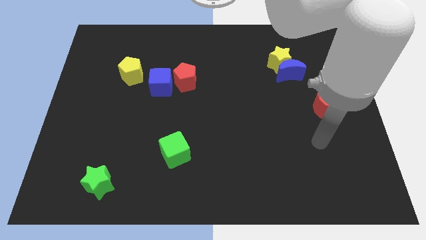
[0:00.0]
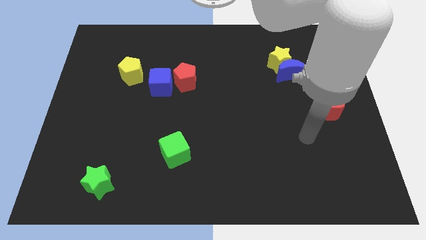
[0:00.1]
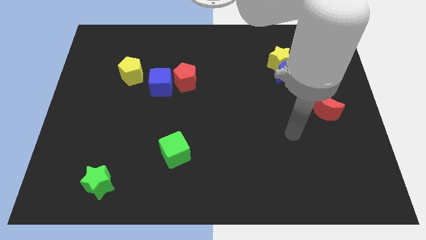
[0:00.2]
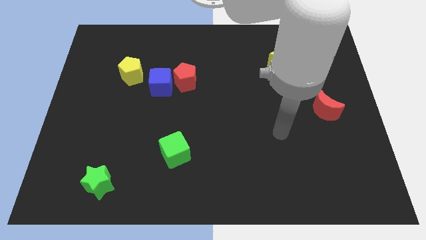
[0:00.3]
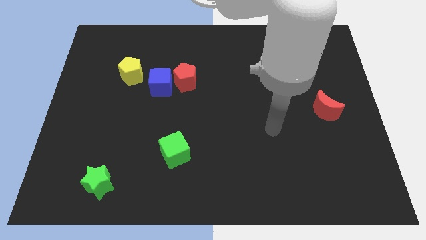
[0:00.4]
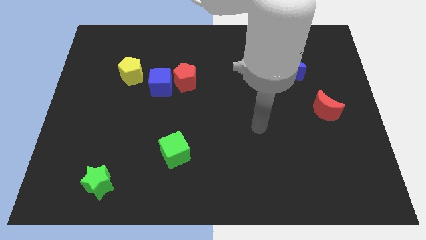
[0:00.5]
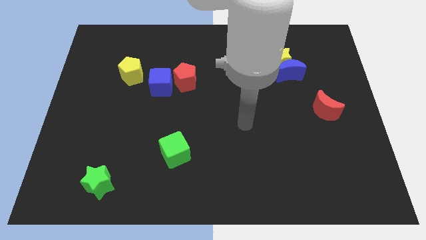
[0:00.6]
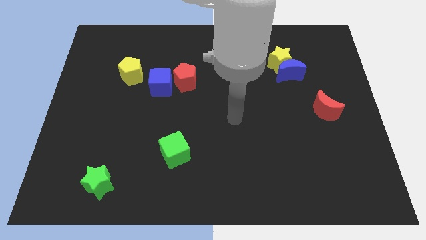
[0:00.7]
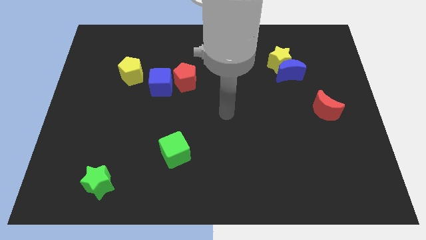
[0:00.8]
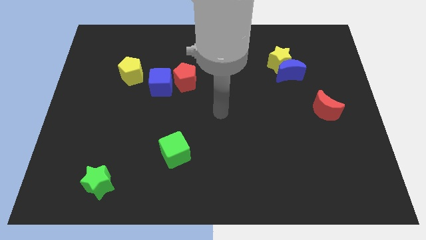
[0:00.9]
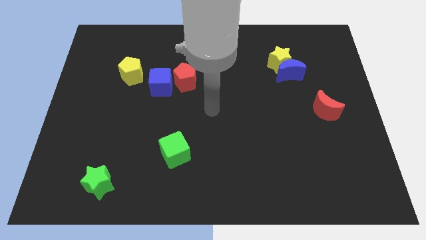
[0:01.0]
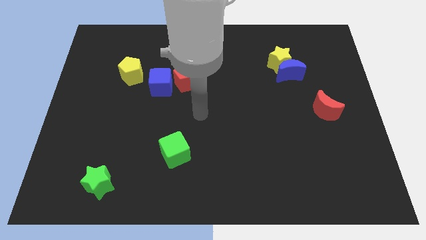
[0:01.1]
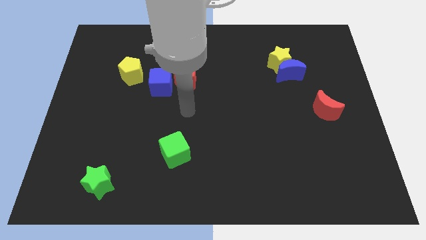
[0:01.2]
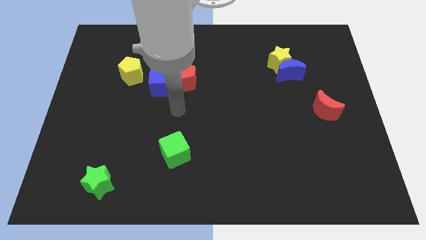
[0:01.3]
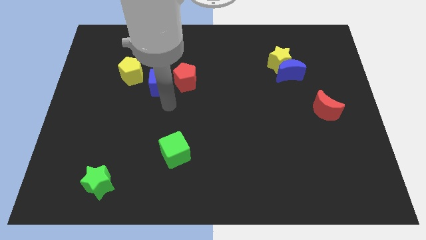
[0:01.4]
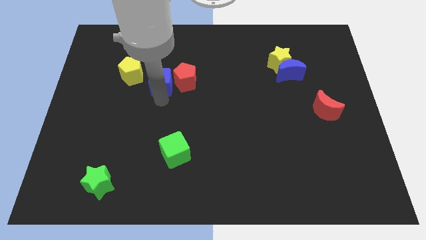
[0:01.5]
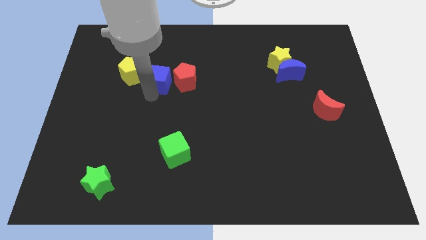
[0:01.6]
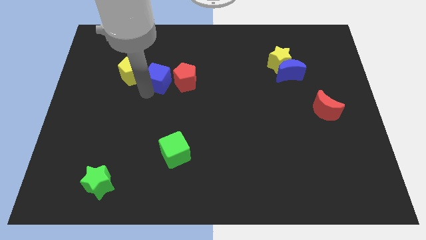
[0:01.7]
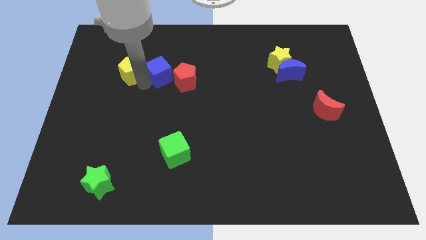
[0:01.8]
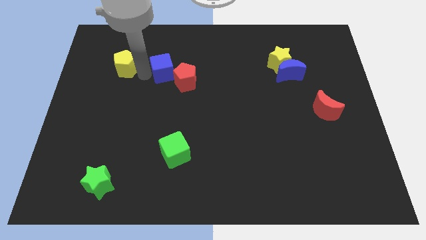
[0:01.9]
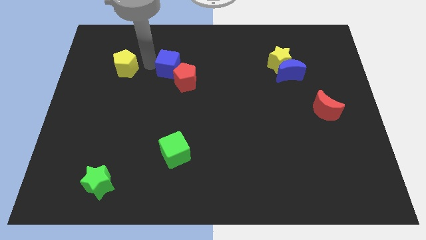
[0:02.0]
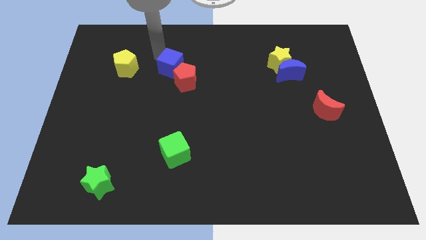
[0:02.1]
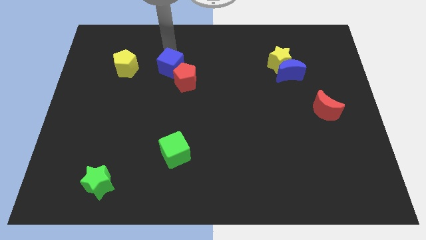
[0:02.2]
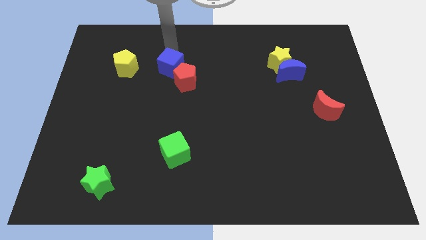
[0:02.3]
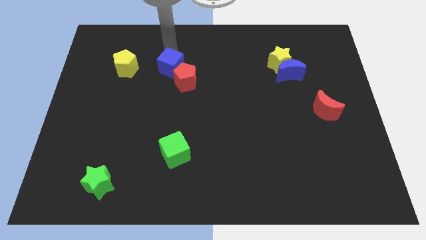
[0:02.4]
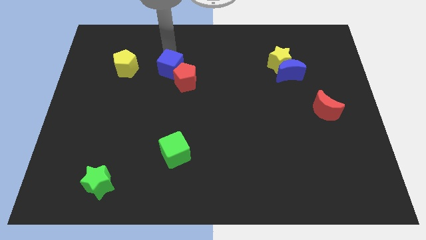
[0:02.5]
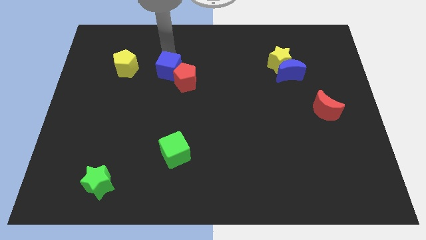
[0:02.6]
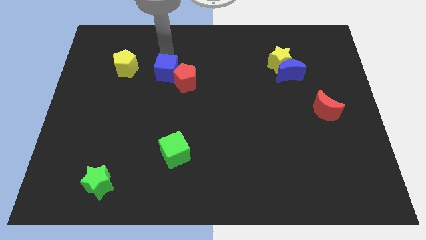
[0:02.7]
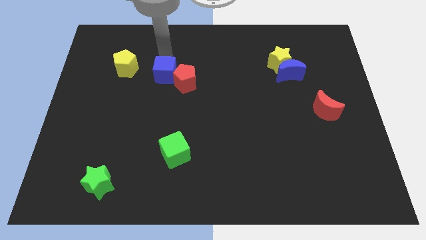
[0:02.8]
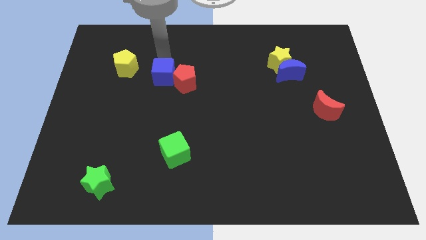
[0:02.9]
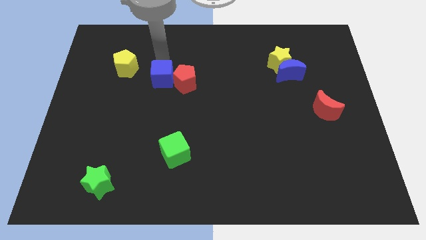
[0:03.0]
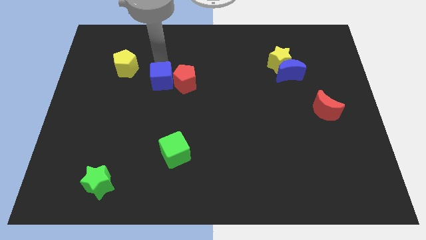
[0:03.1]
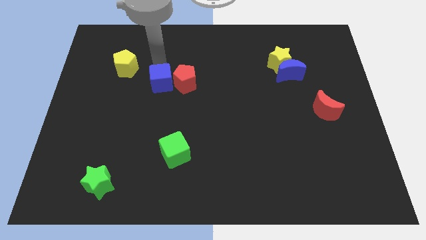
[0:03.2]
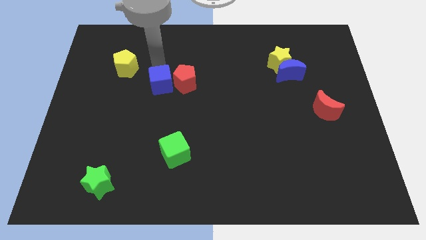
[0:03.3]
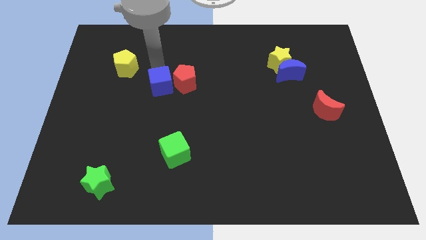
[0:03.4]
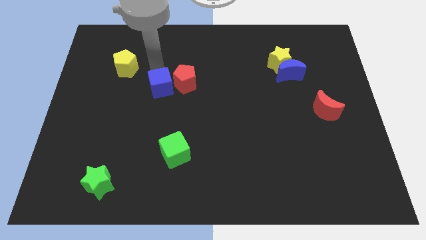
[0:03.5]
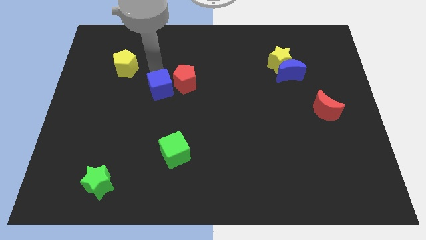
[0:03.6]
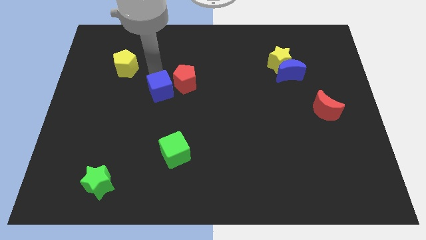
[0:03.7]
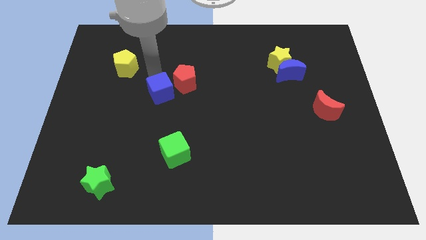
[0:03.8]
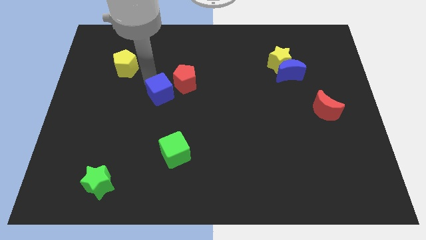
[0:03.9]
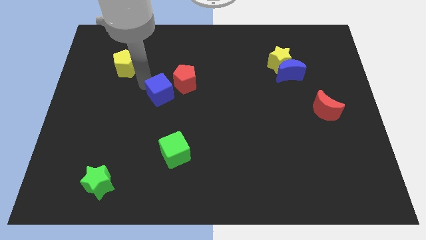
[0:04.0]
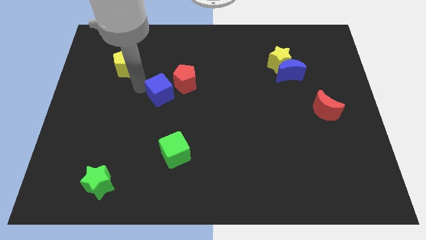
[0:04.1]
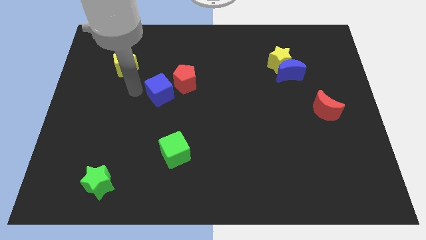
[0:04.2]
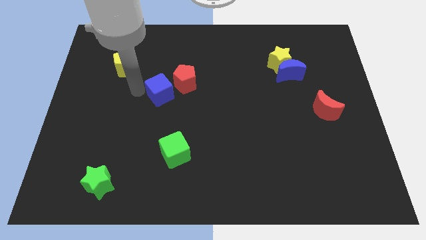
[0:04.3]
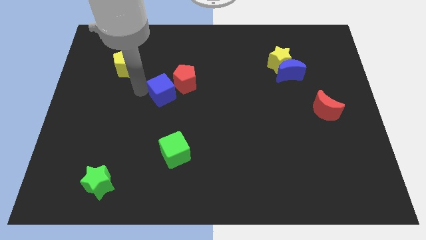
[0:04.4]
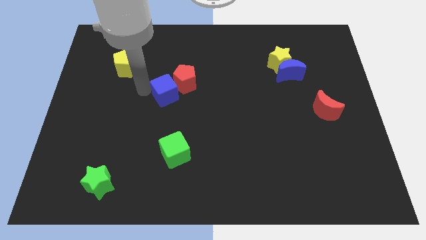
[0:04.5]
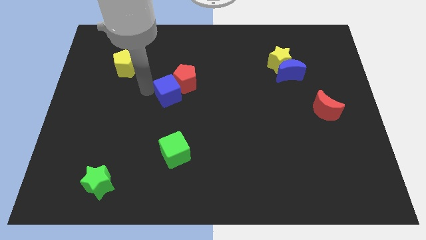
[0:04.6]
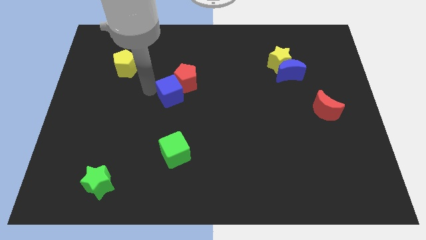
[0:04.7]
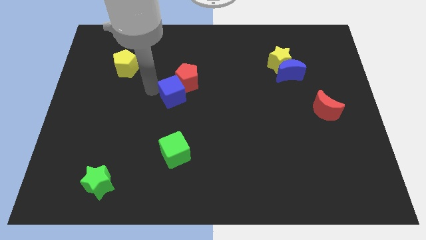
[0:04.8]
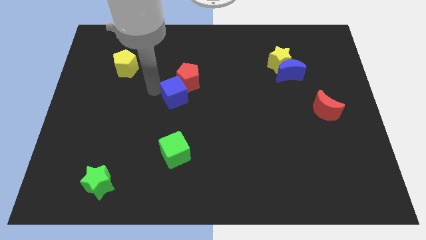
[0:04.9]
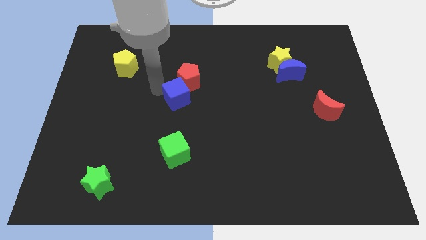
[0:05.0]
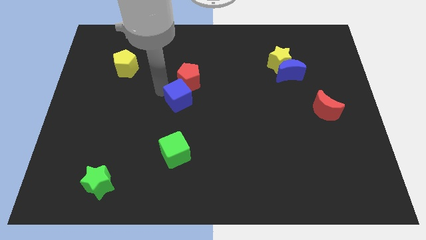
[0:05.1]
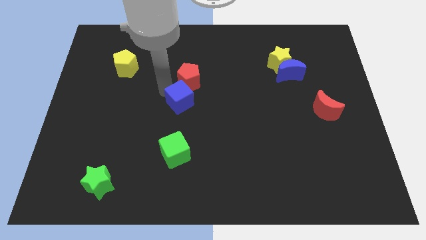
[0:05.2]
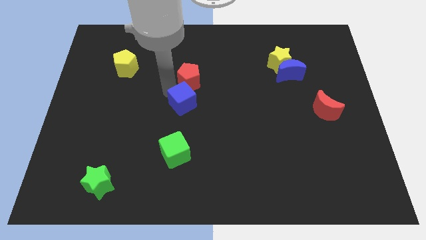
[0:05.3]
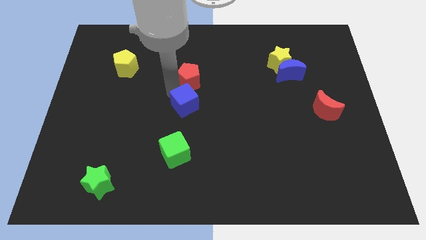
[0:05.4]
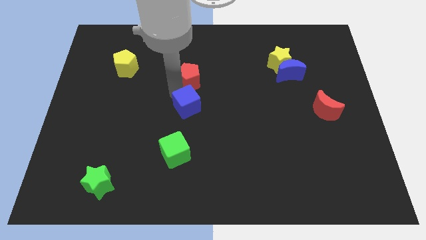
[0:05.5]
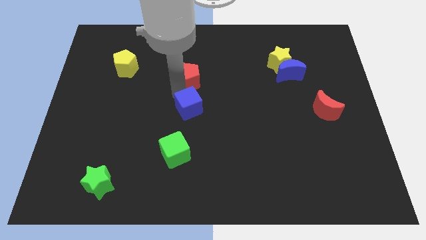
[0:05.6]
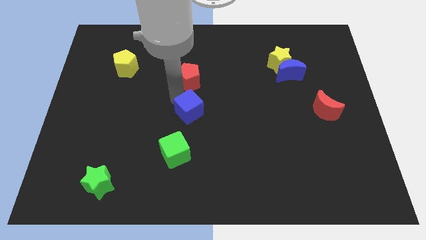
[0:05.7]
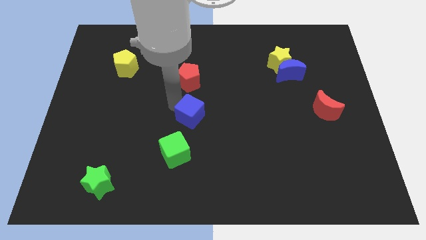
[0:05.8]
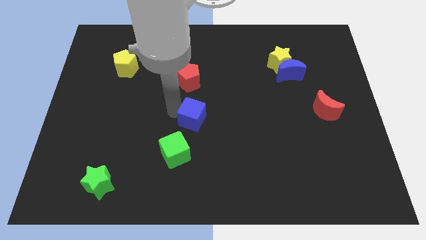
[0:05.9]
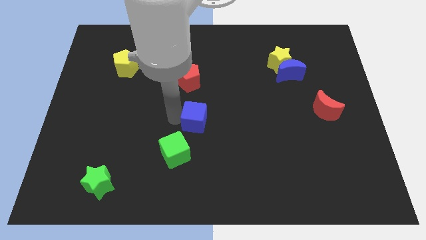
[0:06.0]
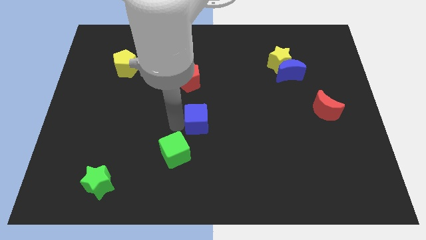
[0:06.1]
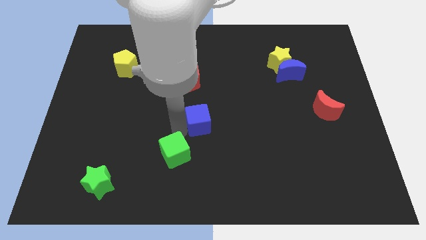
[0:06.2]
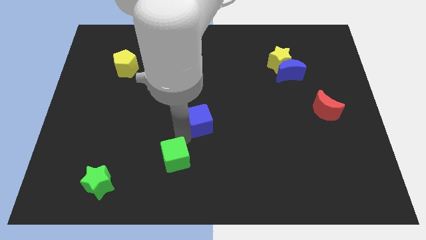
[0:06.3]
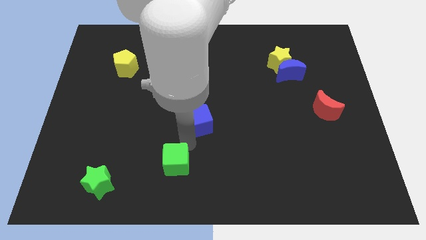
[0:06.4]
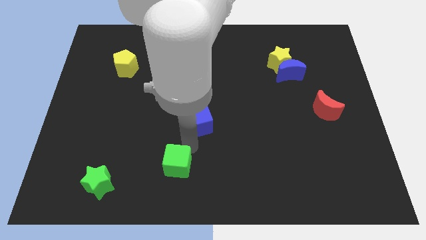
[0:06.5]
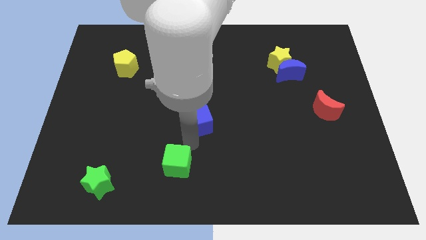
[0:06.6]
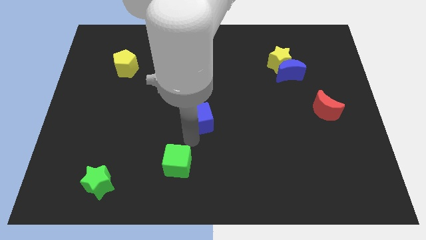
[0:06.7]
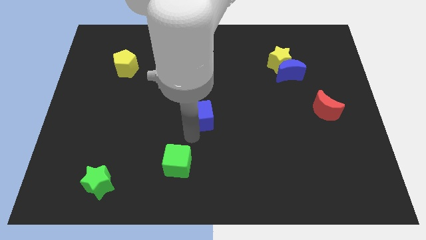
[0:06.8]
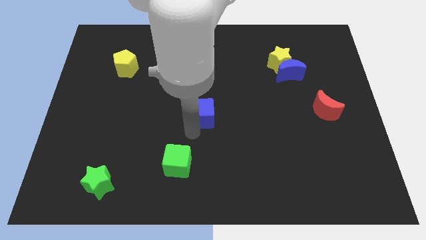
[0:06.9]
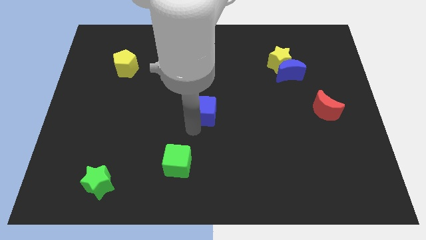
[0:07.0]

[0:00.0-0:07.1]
push the blue cube a little bit to the right

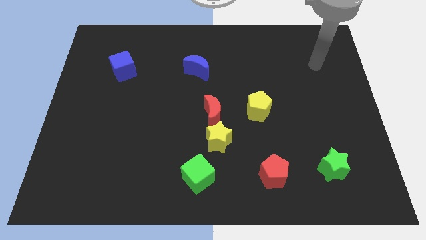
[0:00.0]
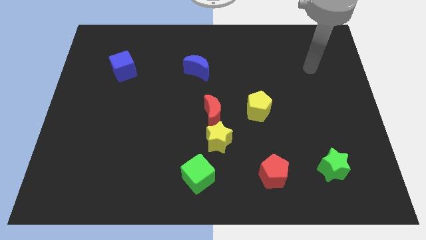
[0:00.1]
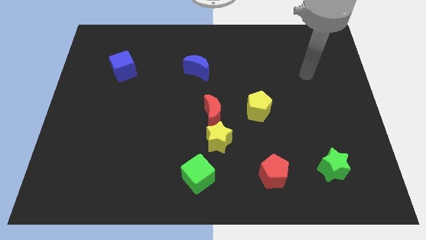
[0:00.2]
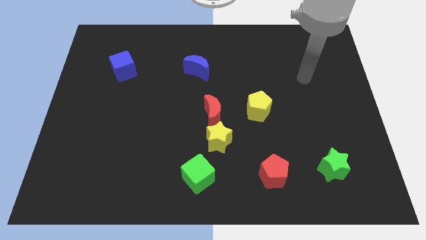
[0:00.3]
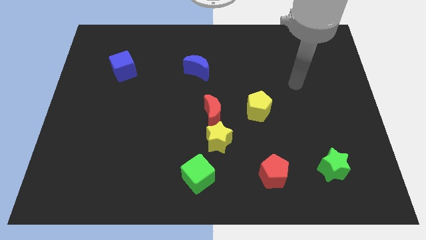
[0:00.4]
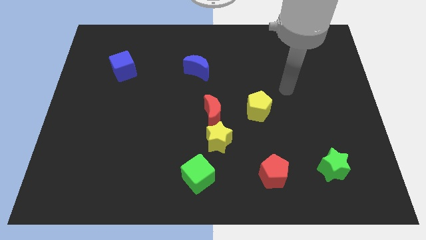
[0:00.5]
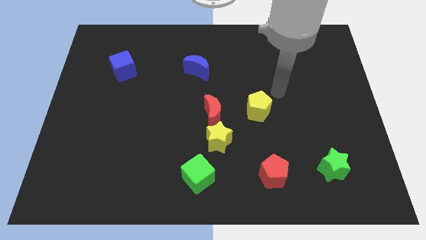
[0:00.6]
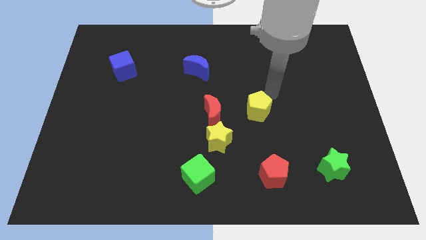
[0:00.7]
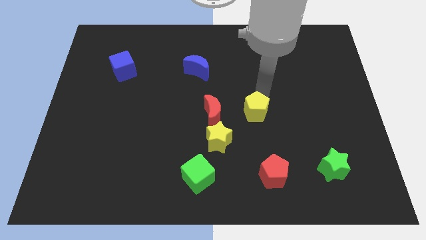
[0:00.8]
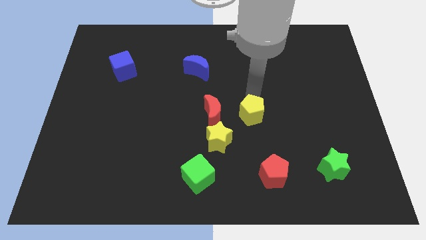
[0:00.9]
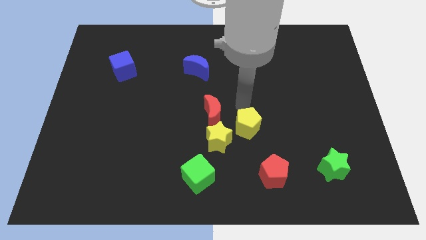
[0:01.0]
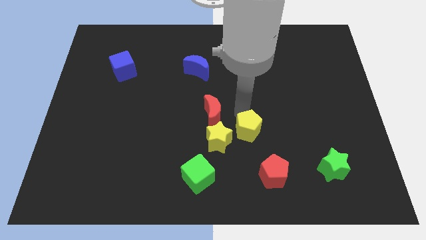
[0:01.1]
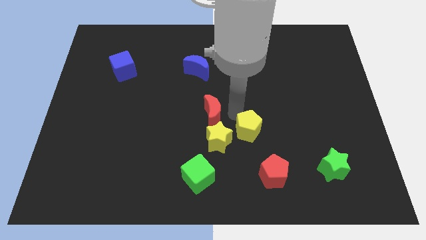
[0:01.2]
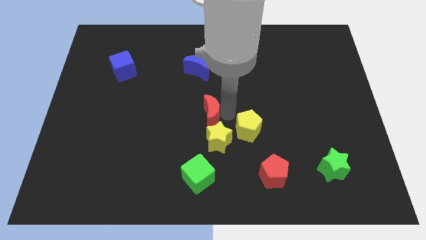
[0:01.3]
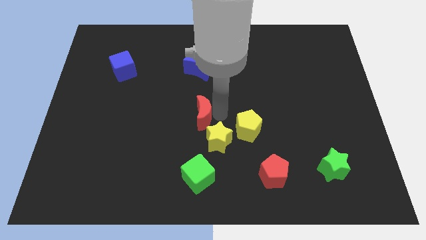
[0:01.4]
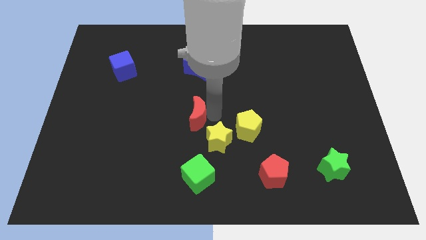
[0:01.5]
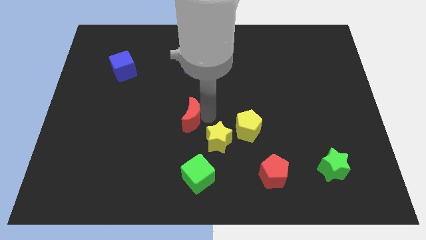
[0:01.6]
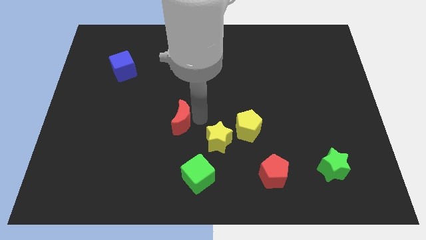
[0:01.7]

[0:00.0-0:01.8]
slightly move the red moon left
